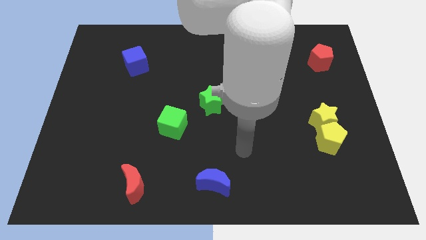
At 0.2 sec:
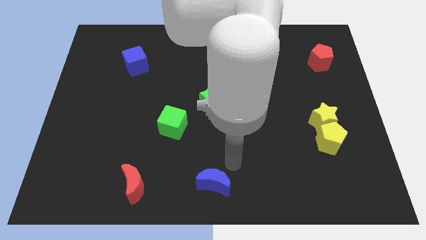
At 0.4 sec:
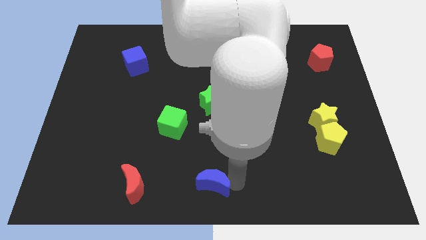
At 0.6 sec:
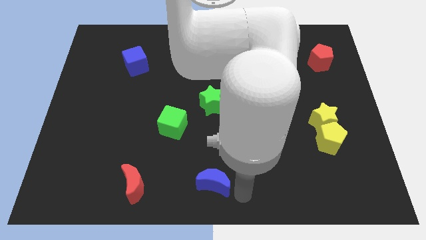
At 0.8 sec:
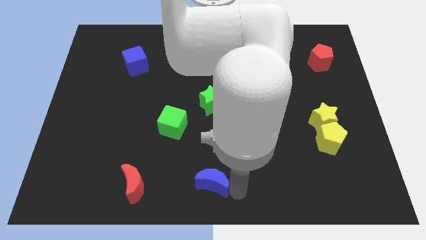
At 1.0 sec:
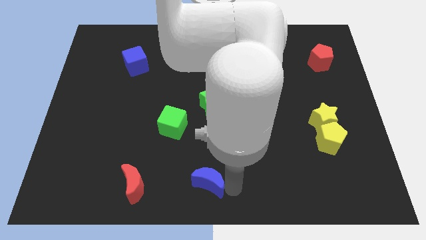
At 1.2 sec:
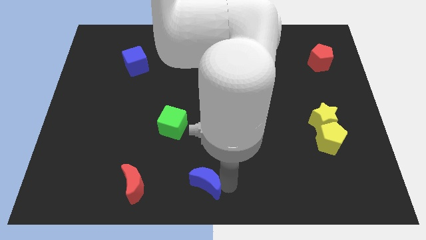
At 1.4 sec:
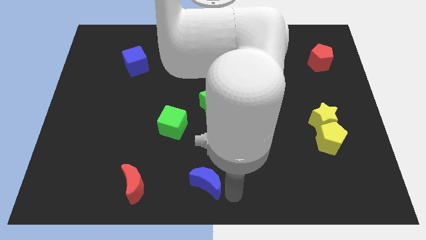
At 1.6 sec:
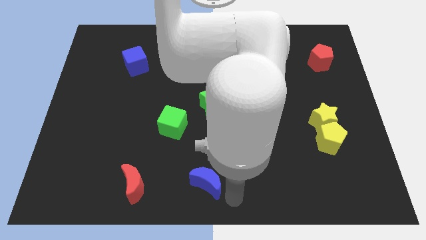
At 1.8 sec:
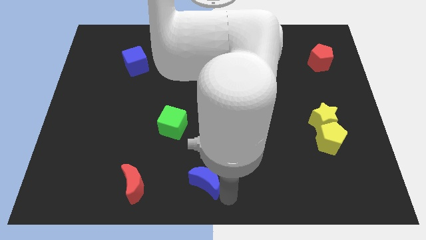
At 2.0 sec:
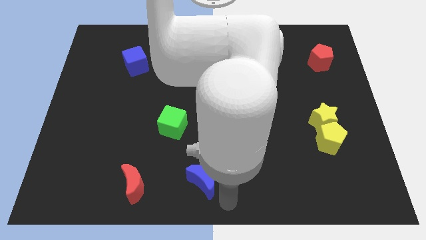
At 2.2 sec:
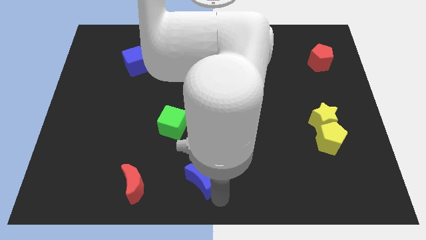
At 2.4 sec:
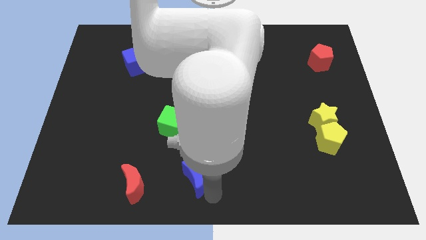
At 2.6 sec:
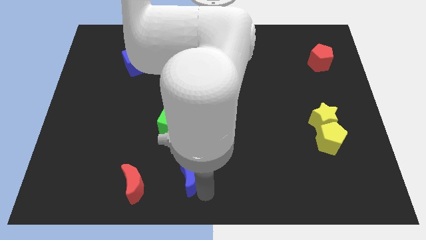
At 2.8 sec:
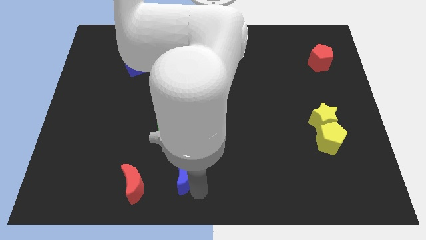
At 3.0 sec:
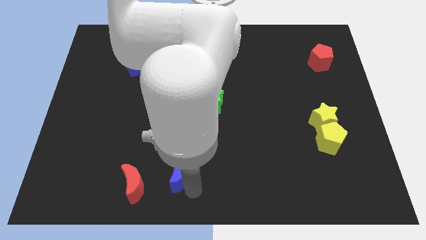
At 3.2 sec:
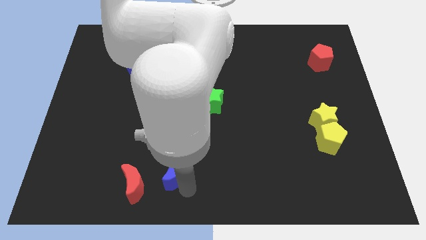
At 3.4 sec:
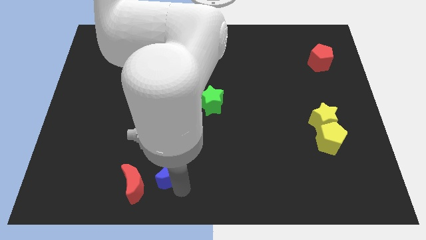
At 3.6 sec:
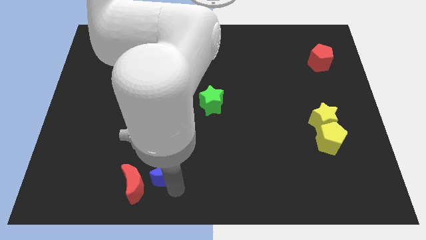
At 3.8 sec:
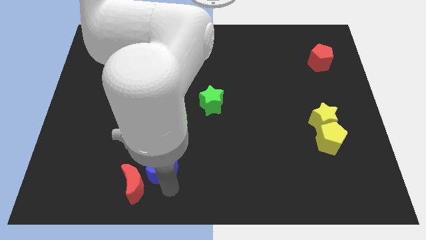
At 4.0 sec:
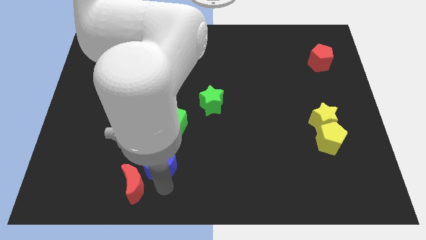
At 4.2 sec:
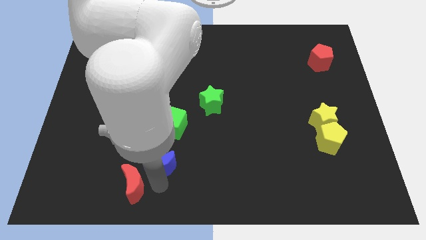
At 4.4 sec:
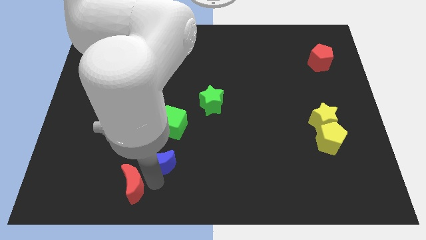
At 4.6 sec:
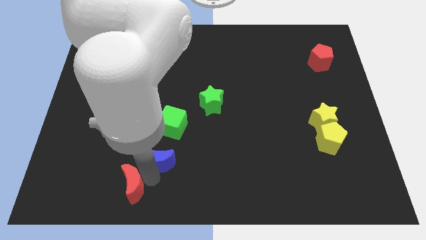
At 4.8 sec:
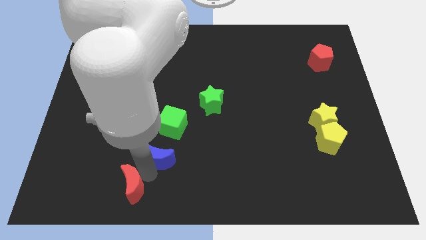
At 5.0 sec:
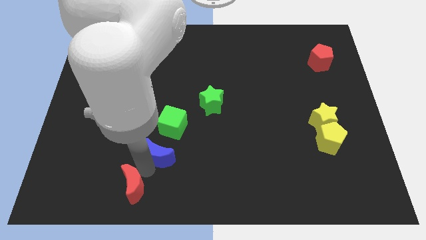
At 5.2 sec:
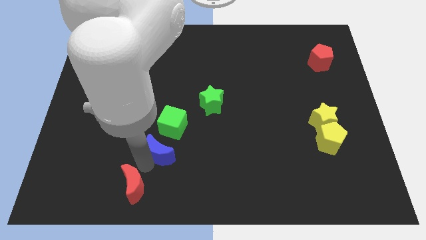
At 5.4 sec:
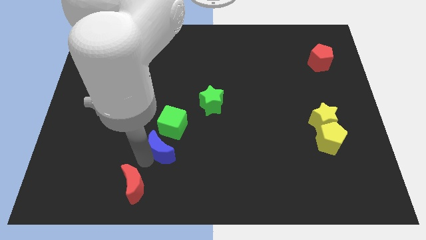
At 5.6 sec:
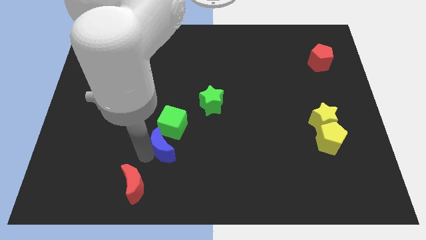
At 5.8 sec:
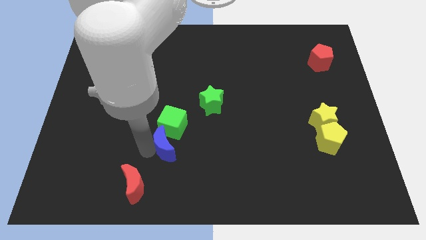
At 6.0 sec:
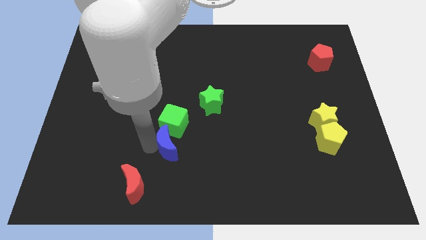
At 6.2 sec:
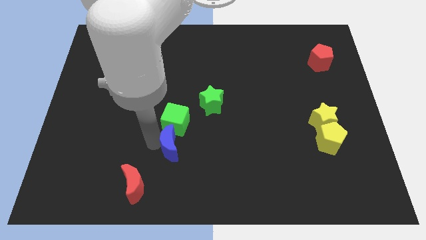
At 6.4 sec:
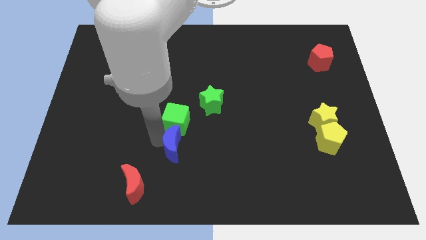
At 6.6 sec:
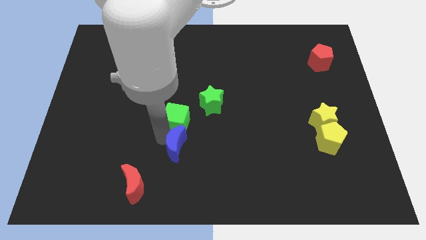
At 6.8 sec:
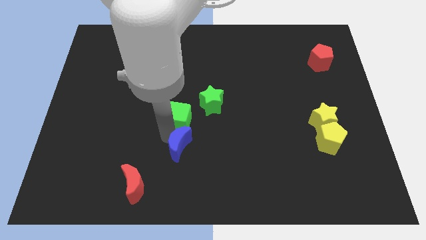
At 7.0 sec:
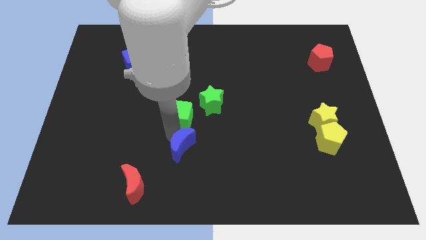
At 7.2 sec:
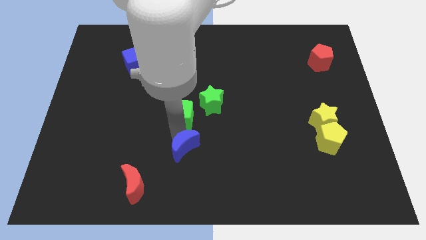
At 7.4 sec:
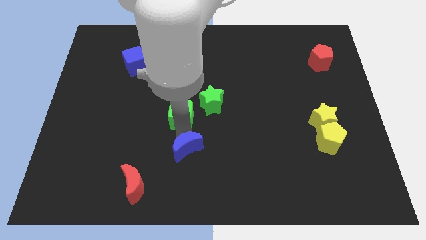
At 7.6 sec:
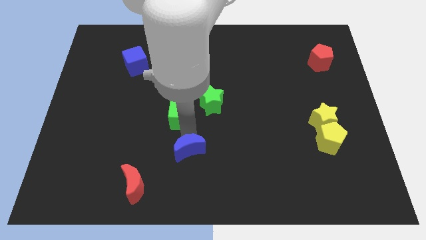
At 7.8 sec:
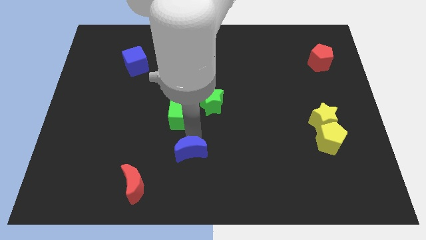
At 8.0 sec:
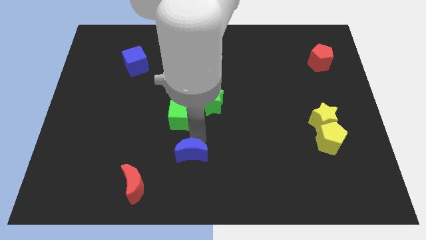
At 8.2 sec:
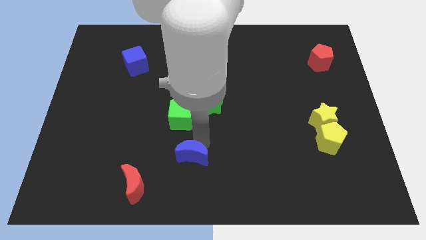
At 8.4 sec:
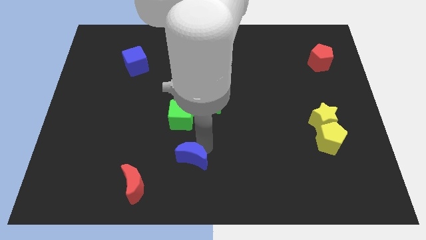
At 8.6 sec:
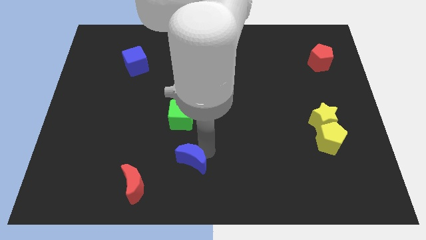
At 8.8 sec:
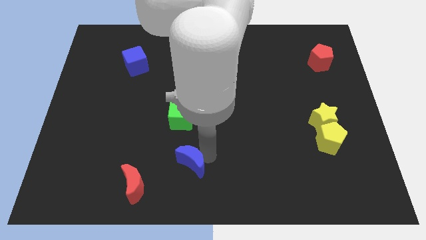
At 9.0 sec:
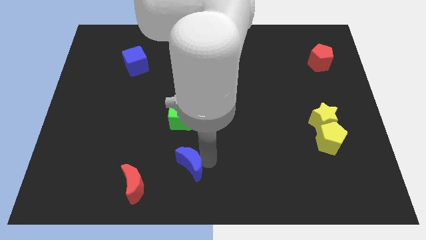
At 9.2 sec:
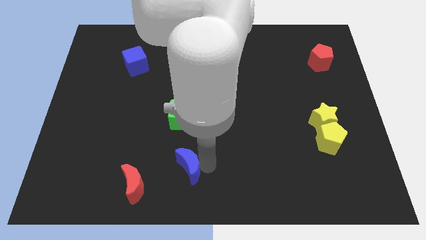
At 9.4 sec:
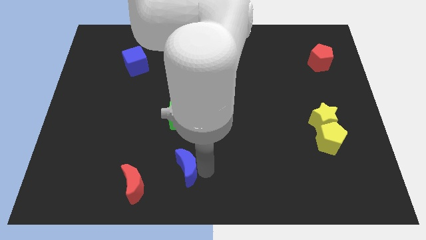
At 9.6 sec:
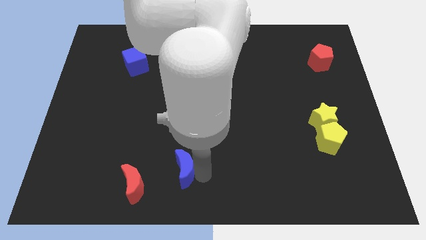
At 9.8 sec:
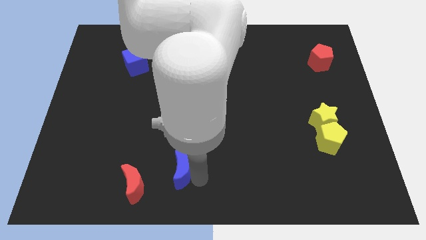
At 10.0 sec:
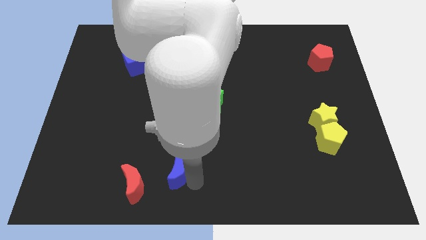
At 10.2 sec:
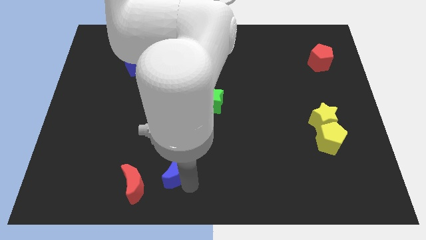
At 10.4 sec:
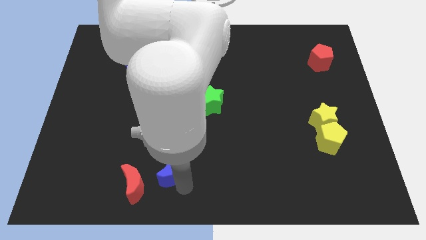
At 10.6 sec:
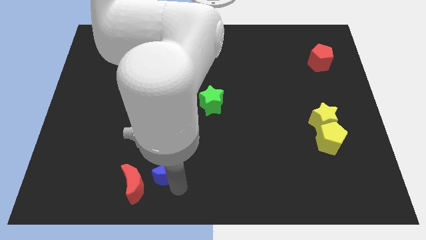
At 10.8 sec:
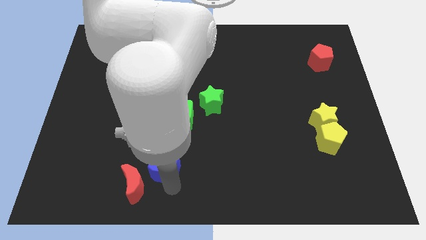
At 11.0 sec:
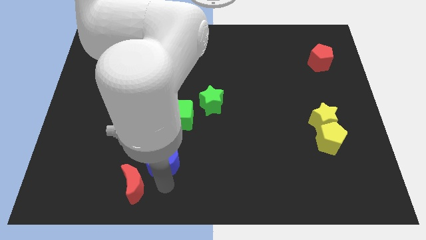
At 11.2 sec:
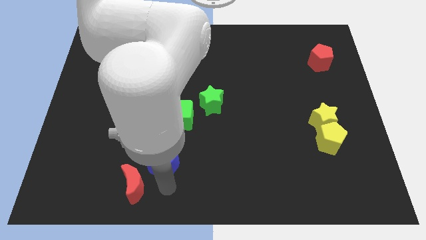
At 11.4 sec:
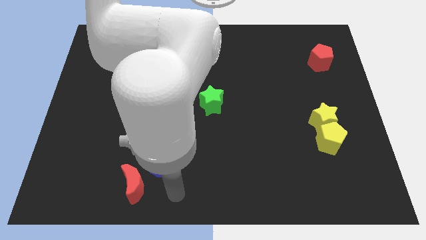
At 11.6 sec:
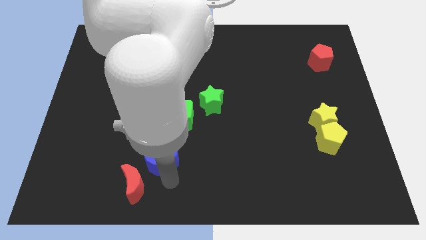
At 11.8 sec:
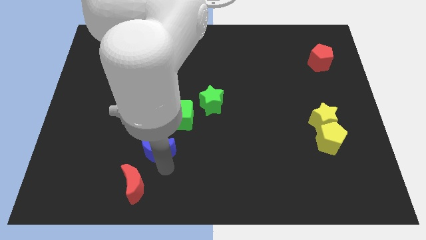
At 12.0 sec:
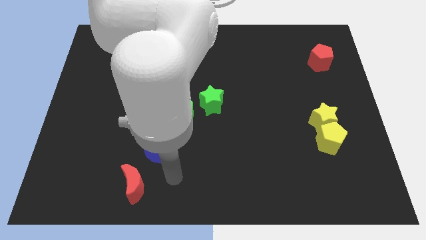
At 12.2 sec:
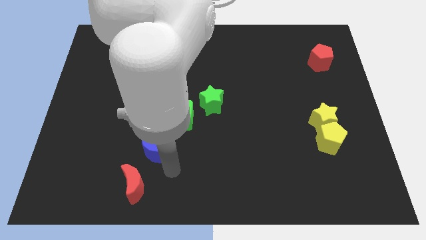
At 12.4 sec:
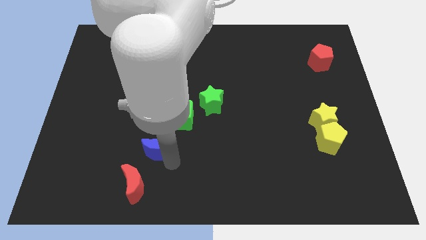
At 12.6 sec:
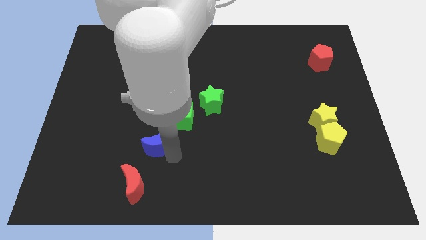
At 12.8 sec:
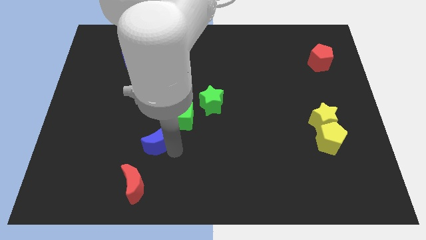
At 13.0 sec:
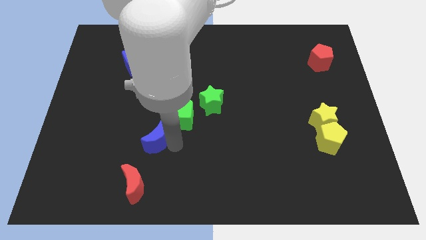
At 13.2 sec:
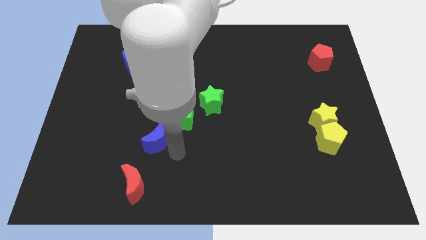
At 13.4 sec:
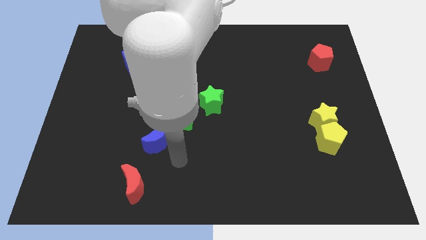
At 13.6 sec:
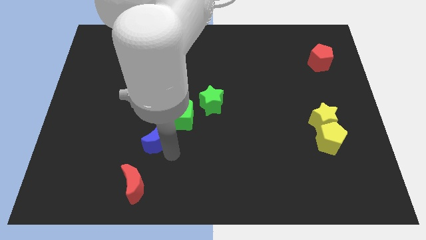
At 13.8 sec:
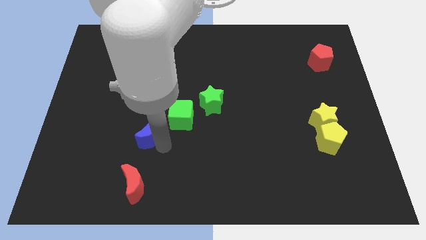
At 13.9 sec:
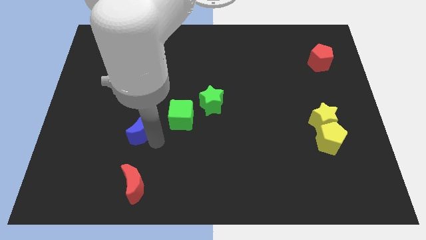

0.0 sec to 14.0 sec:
push the blue moon upwards and left diagonally

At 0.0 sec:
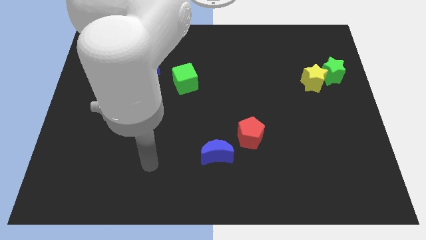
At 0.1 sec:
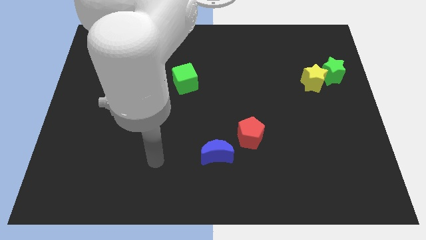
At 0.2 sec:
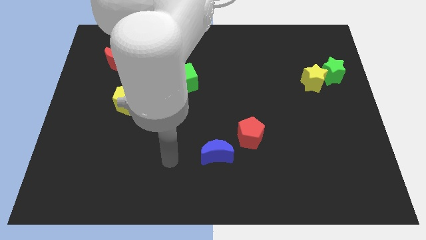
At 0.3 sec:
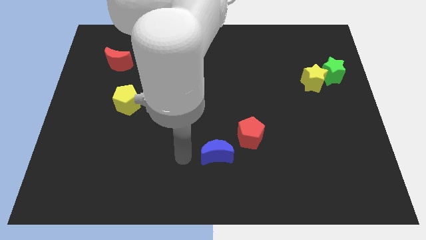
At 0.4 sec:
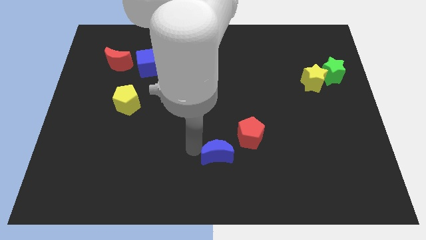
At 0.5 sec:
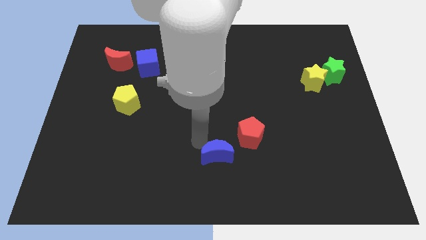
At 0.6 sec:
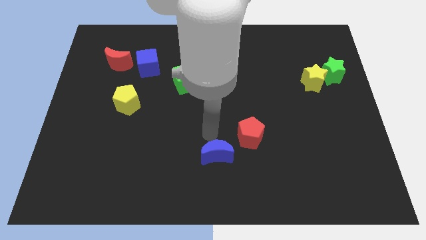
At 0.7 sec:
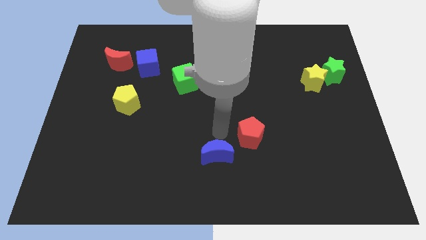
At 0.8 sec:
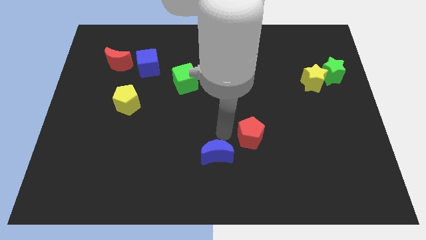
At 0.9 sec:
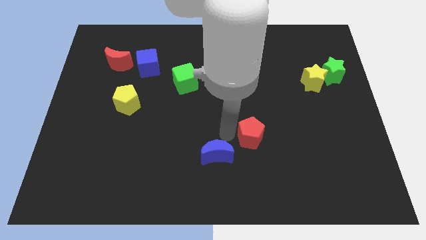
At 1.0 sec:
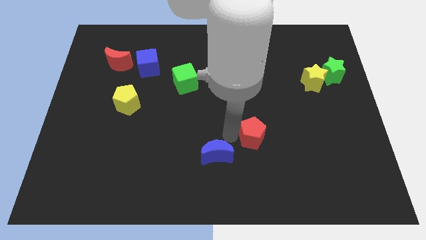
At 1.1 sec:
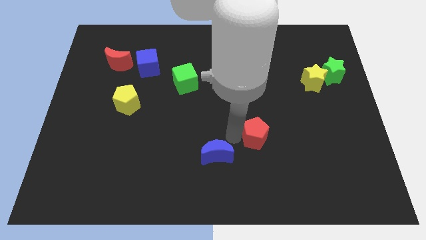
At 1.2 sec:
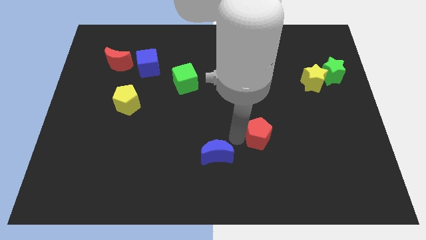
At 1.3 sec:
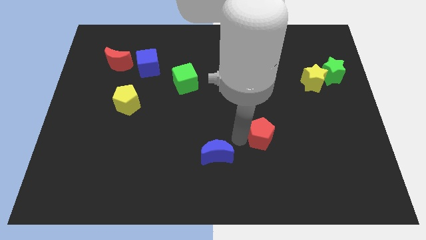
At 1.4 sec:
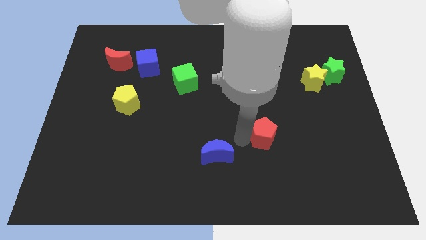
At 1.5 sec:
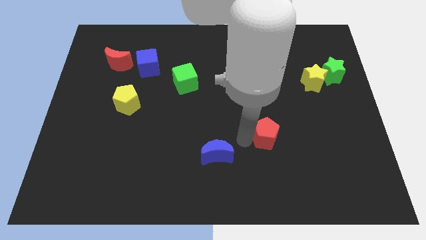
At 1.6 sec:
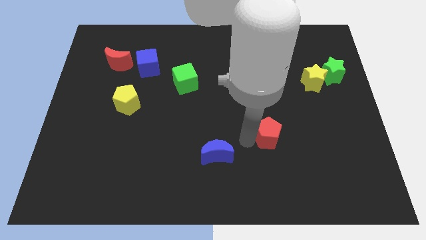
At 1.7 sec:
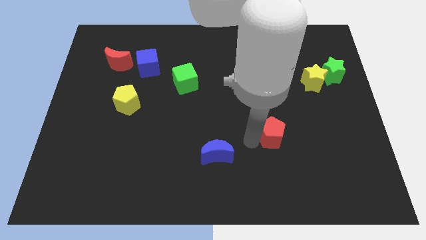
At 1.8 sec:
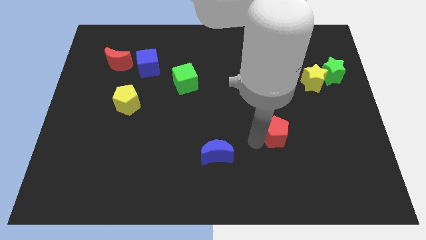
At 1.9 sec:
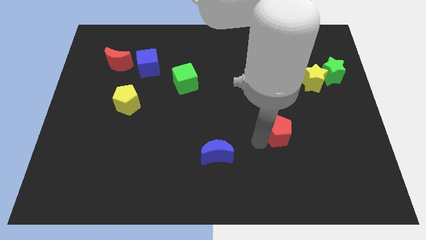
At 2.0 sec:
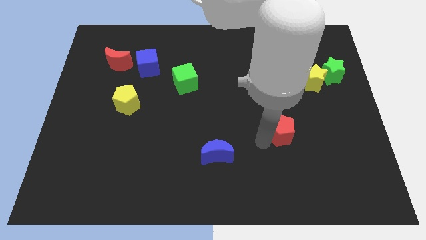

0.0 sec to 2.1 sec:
slightly move the red pentagon to the right
